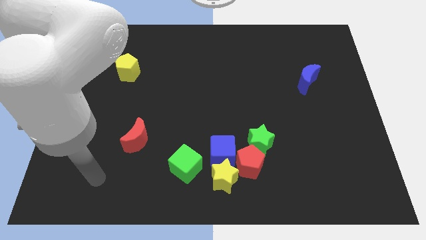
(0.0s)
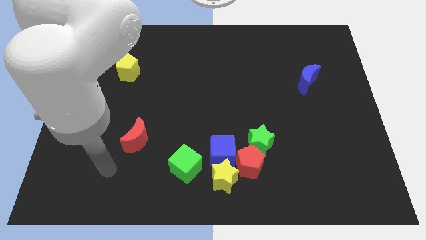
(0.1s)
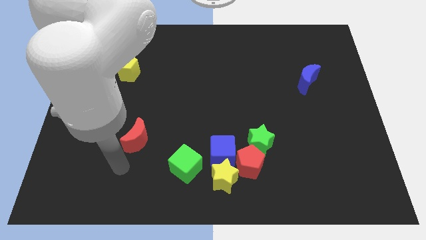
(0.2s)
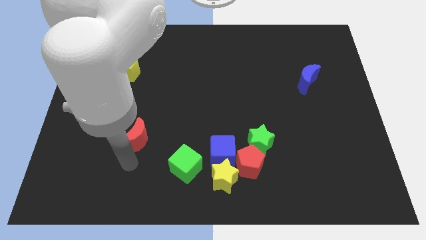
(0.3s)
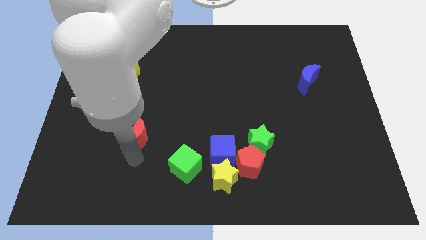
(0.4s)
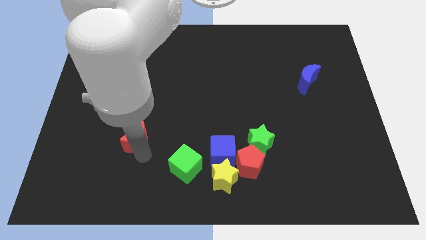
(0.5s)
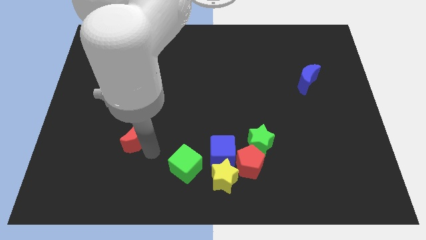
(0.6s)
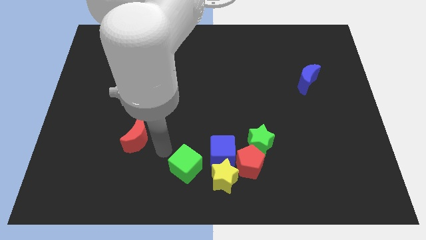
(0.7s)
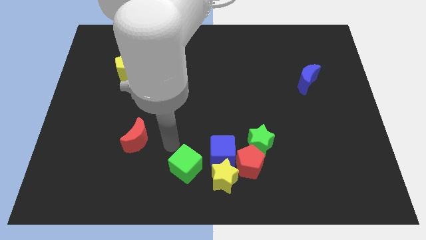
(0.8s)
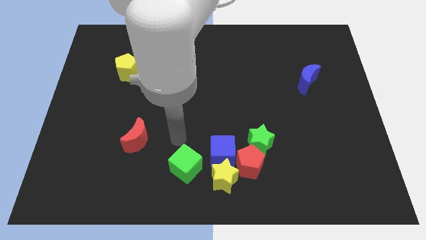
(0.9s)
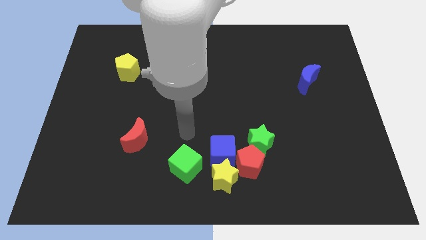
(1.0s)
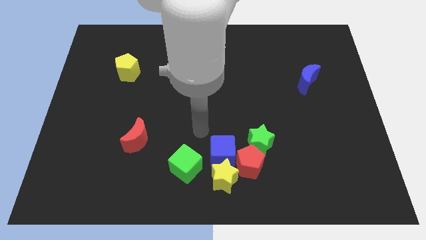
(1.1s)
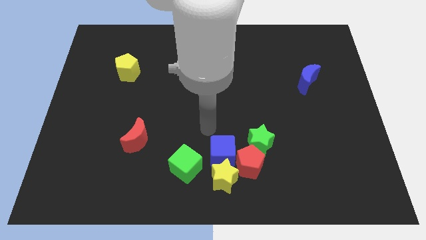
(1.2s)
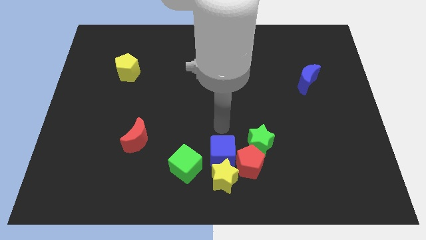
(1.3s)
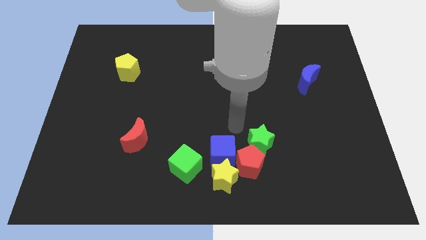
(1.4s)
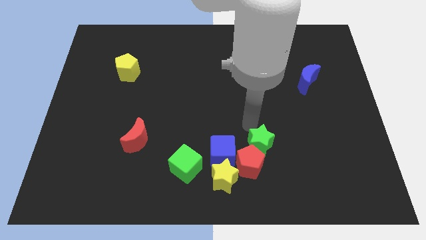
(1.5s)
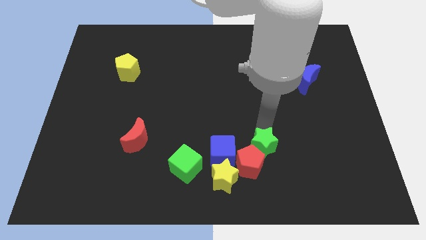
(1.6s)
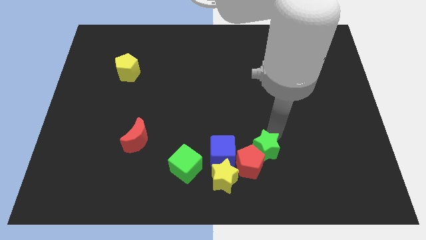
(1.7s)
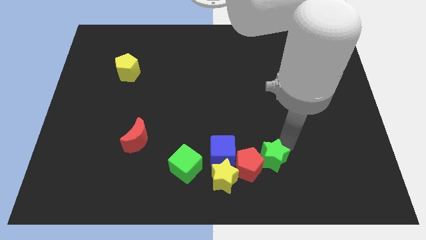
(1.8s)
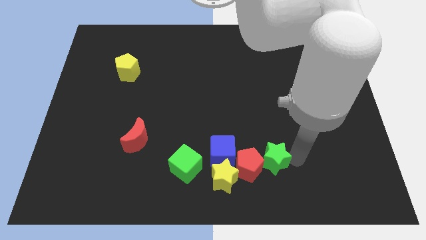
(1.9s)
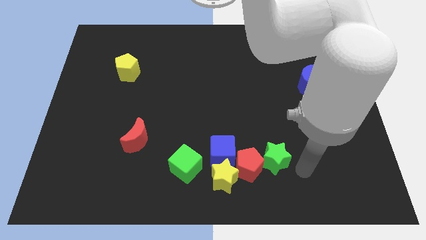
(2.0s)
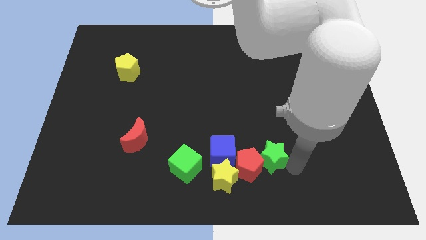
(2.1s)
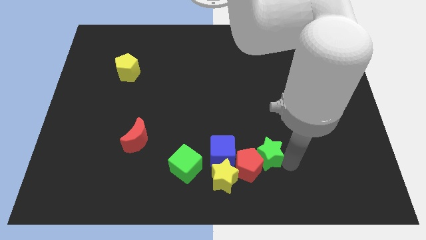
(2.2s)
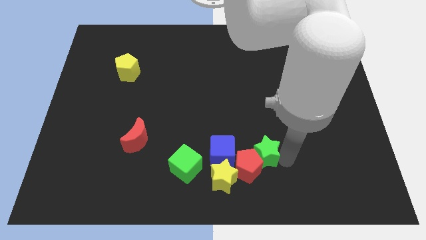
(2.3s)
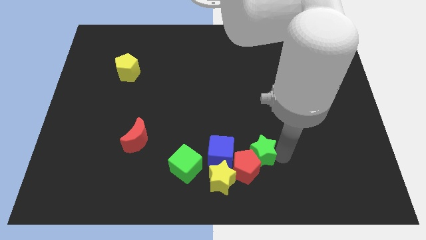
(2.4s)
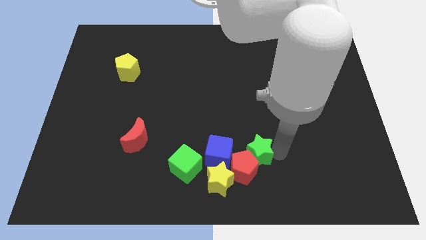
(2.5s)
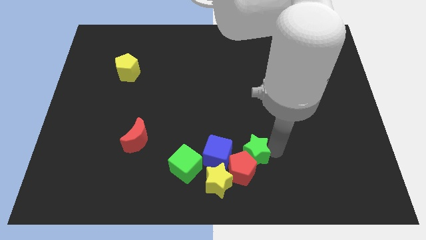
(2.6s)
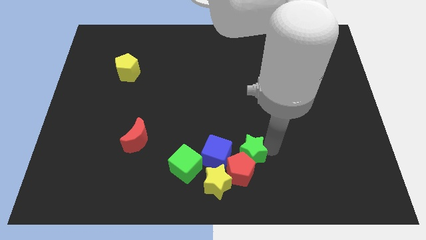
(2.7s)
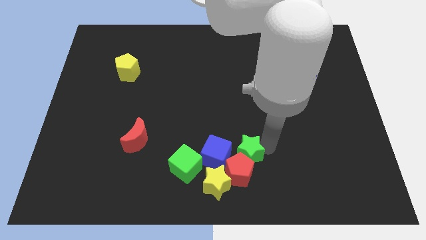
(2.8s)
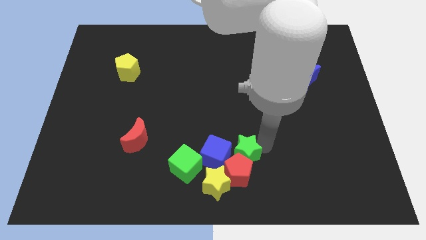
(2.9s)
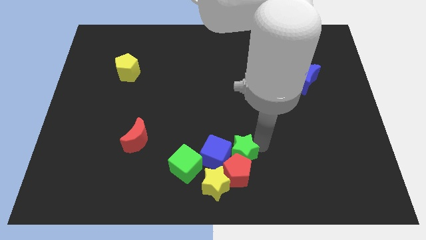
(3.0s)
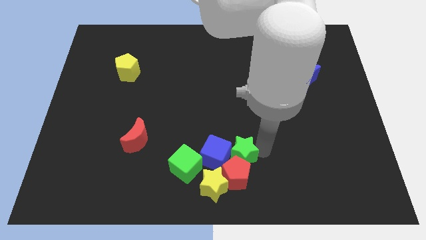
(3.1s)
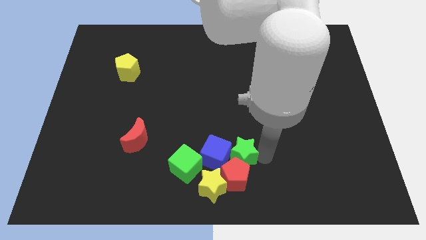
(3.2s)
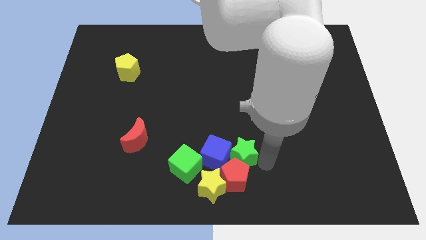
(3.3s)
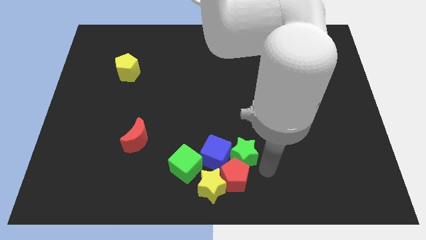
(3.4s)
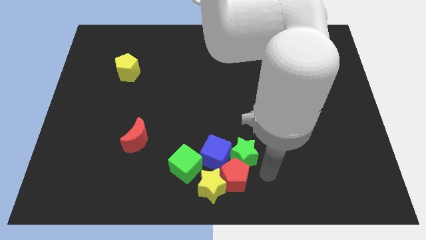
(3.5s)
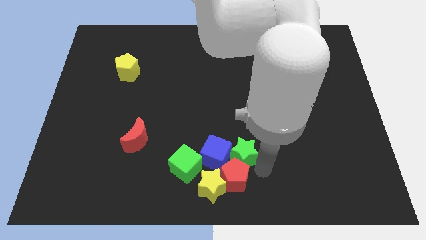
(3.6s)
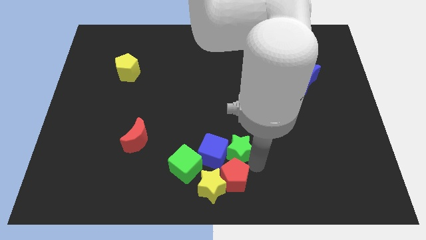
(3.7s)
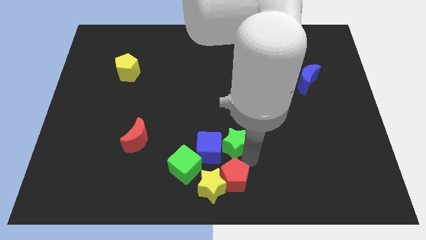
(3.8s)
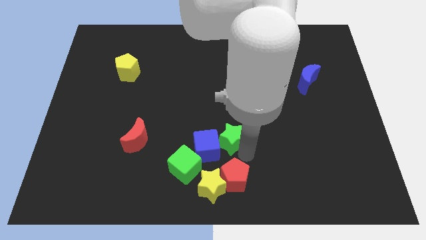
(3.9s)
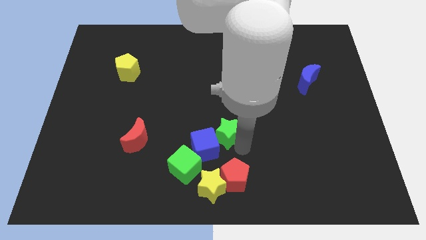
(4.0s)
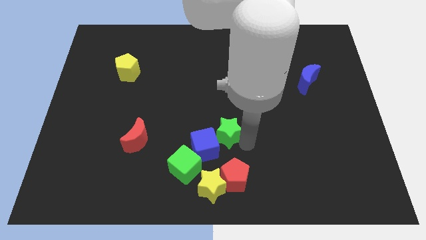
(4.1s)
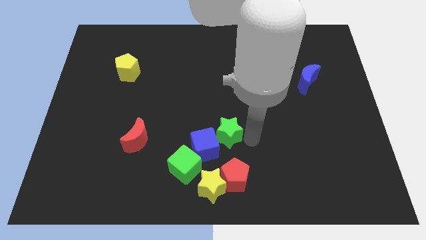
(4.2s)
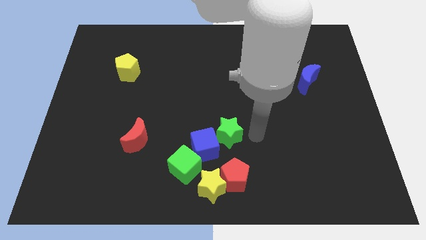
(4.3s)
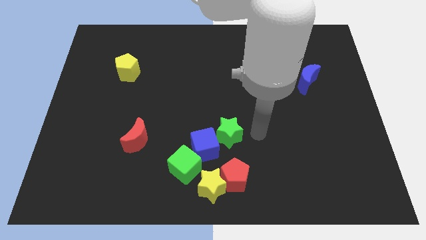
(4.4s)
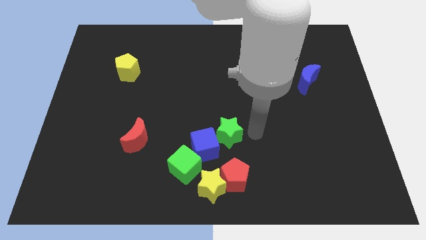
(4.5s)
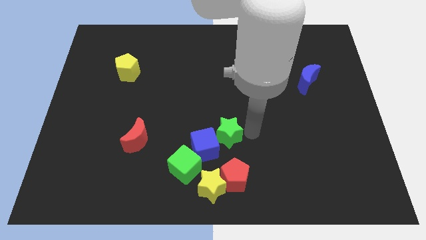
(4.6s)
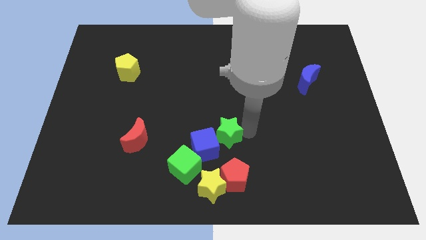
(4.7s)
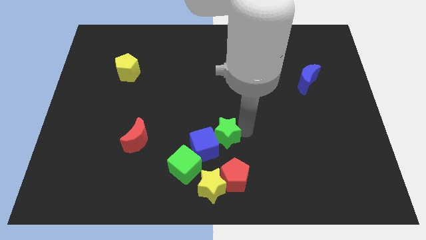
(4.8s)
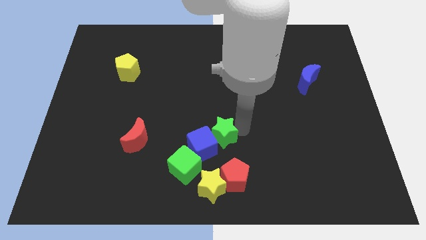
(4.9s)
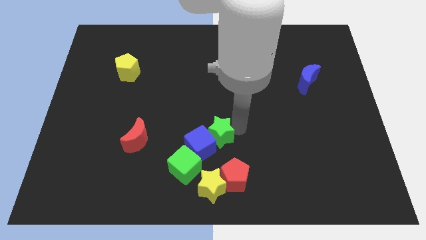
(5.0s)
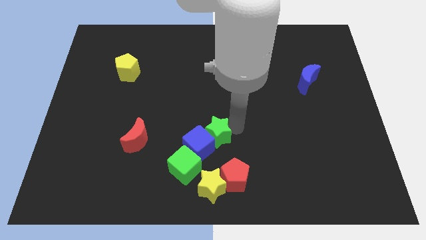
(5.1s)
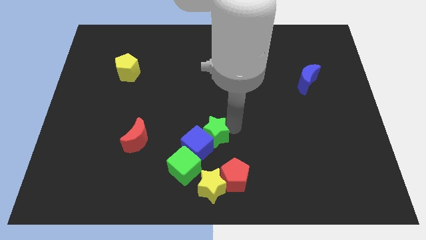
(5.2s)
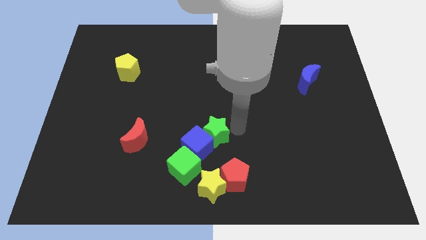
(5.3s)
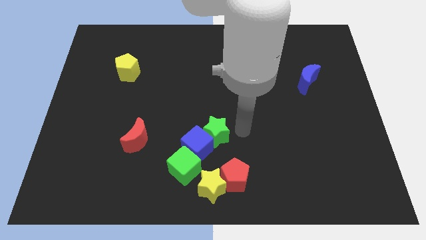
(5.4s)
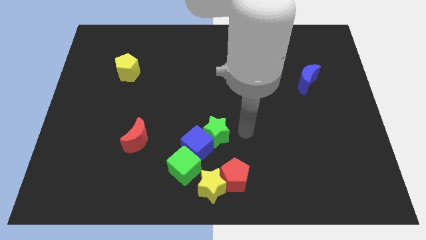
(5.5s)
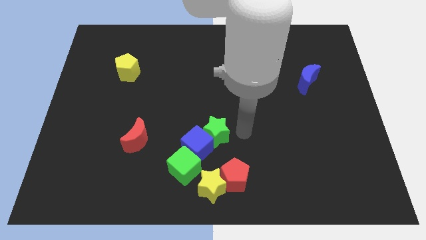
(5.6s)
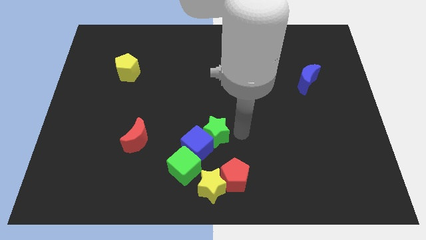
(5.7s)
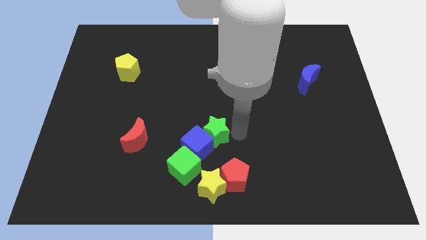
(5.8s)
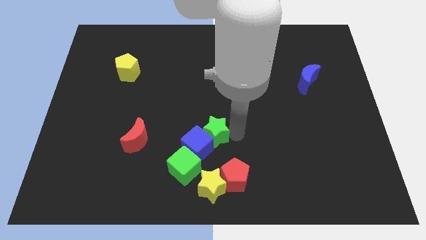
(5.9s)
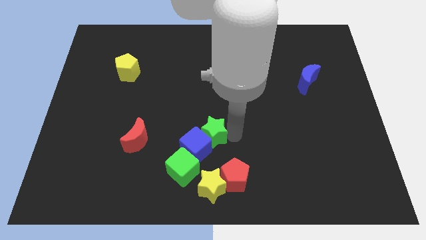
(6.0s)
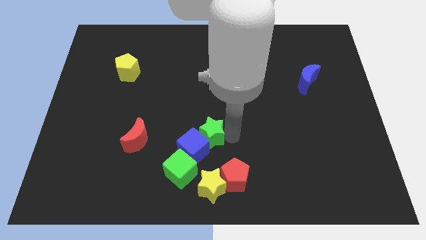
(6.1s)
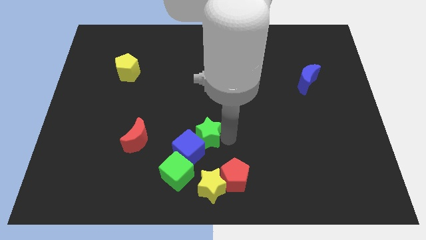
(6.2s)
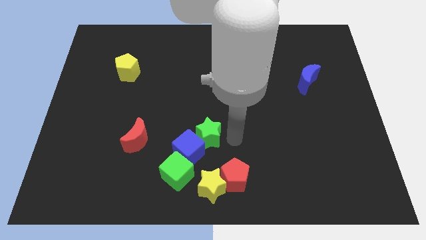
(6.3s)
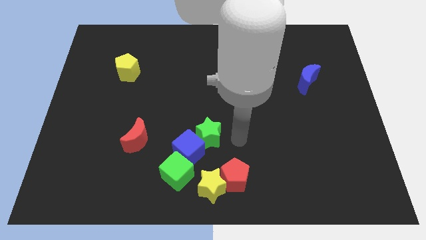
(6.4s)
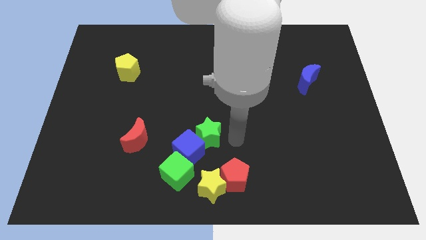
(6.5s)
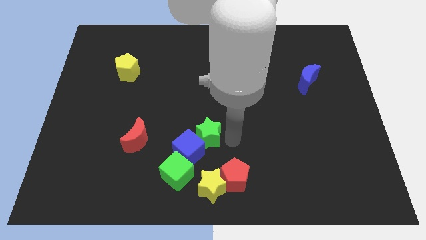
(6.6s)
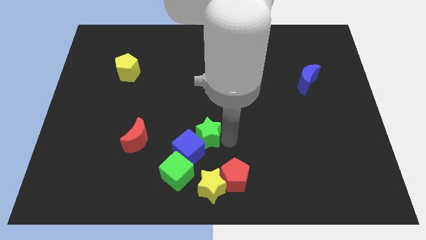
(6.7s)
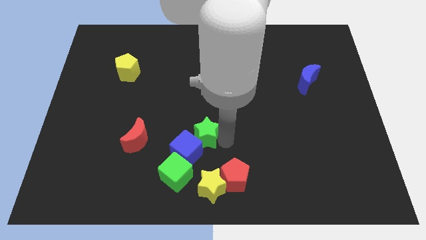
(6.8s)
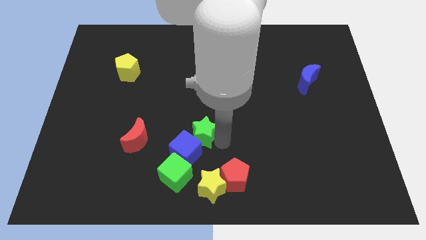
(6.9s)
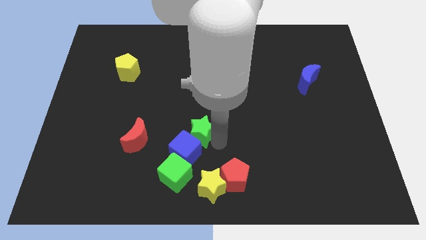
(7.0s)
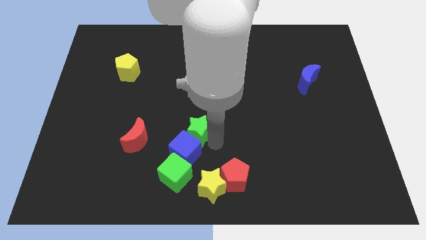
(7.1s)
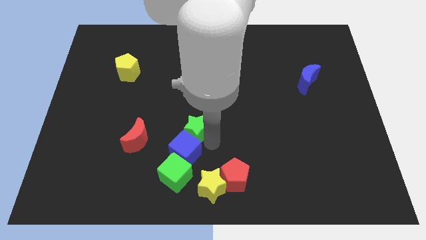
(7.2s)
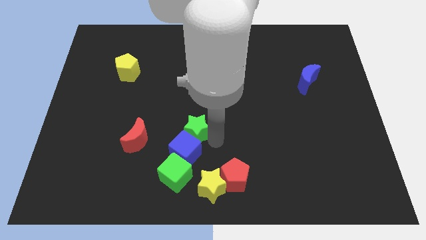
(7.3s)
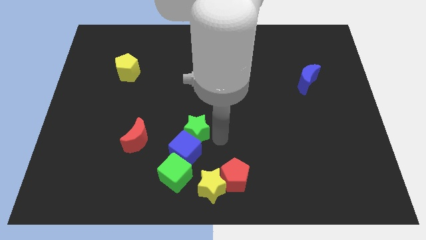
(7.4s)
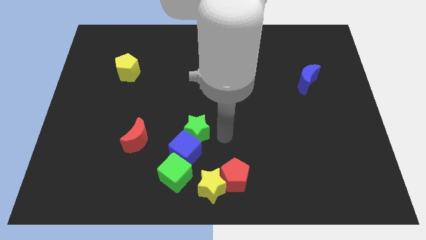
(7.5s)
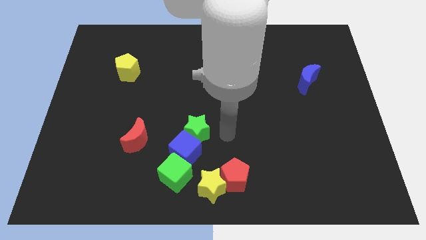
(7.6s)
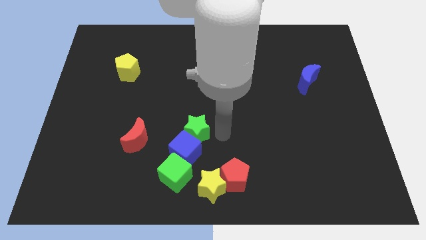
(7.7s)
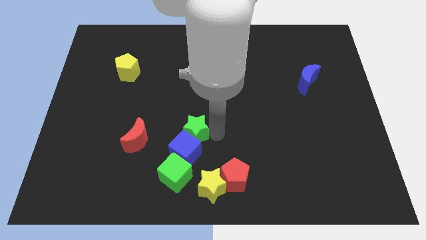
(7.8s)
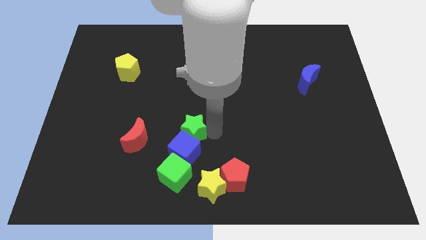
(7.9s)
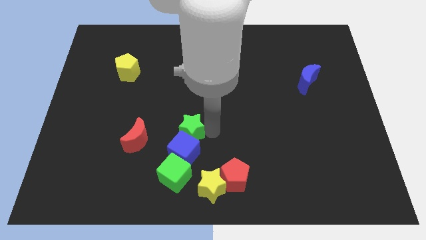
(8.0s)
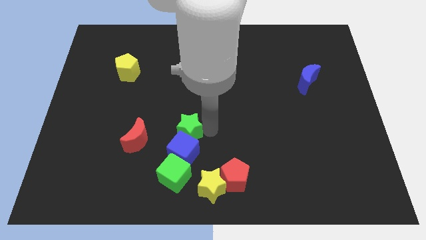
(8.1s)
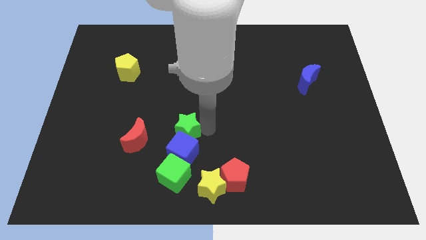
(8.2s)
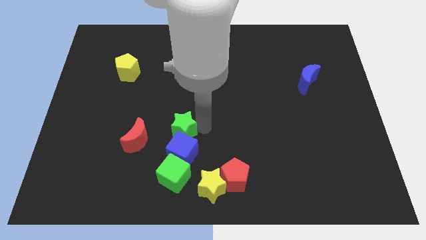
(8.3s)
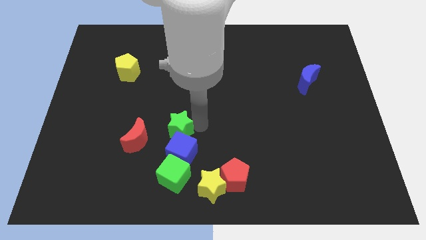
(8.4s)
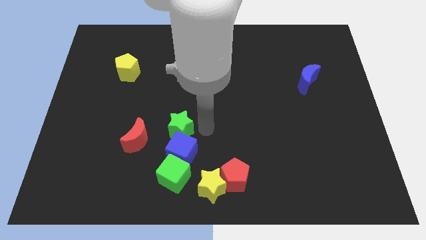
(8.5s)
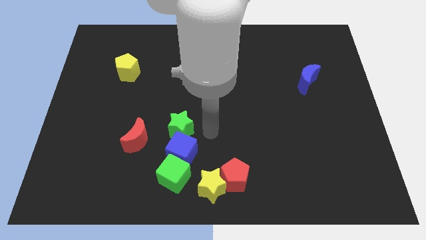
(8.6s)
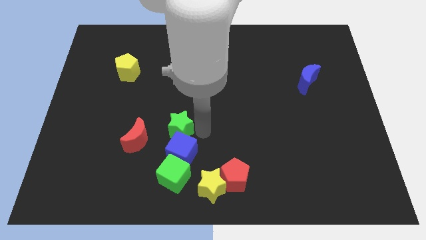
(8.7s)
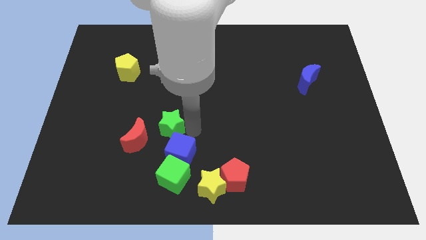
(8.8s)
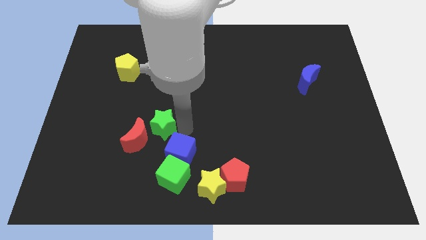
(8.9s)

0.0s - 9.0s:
push the green star left
